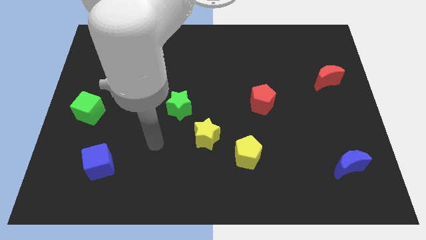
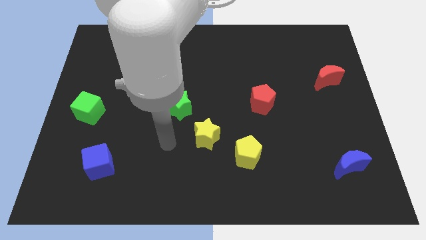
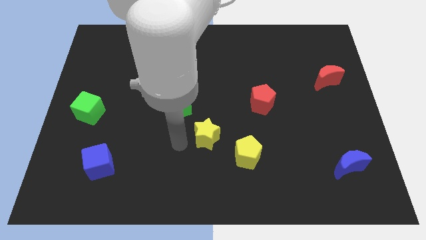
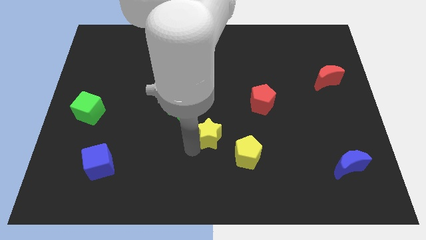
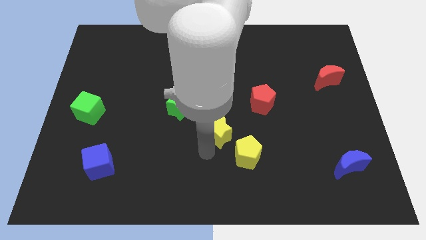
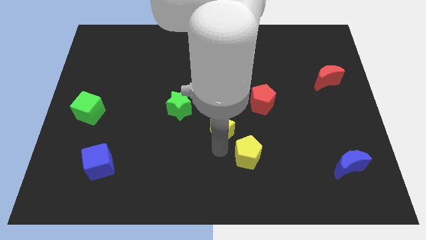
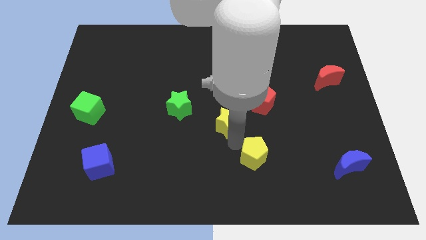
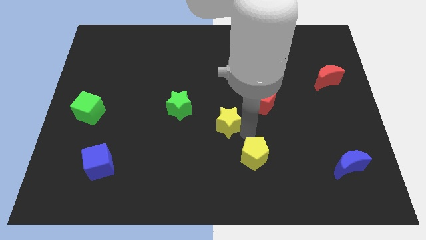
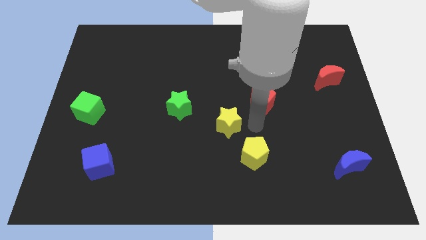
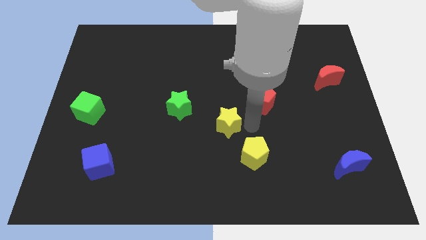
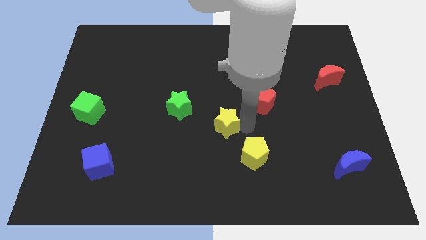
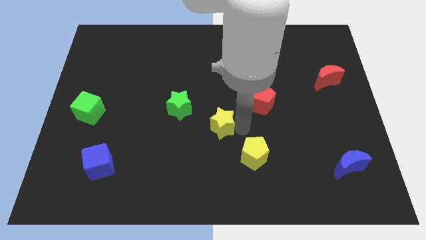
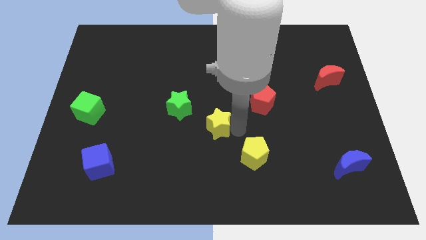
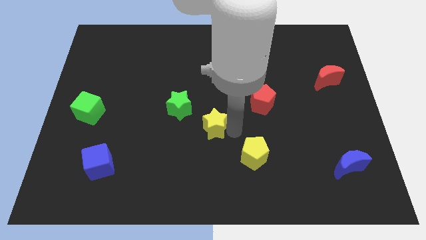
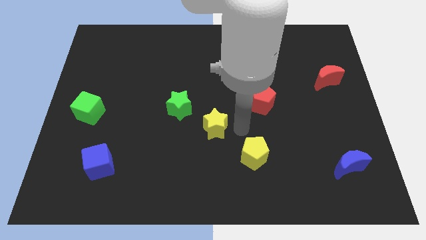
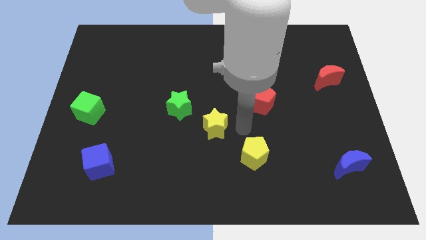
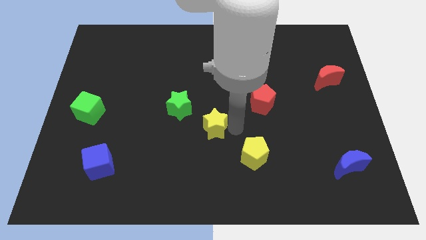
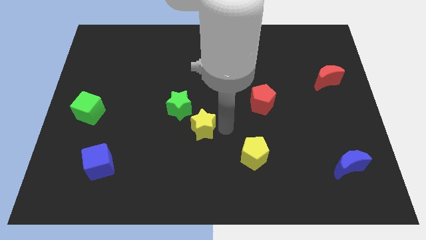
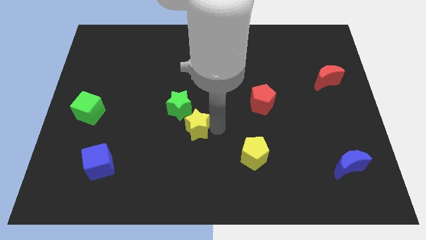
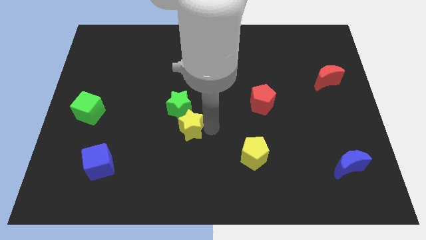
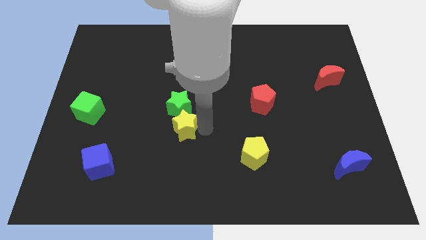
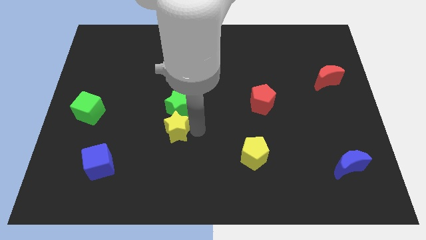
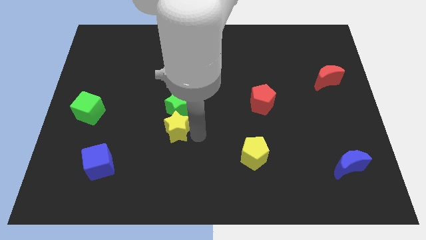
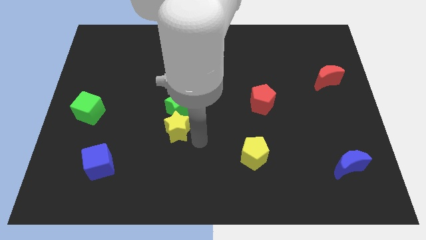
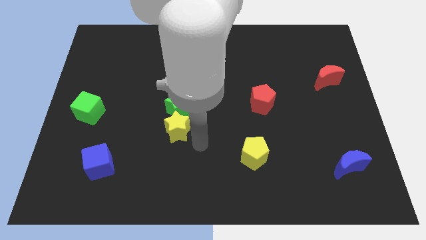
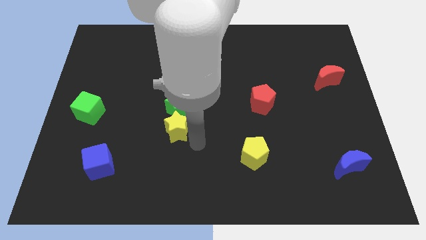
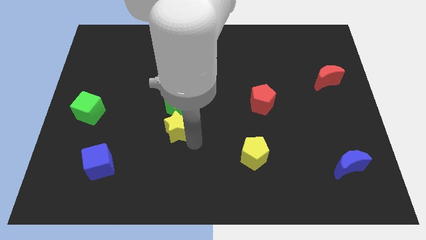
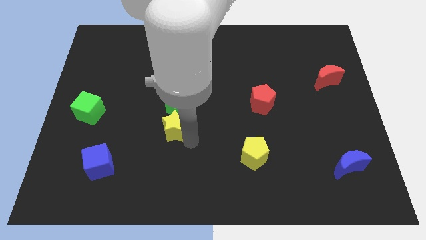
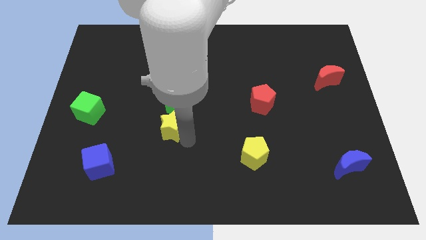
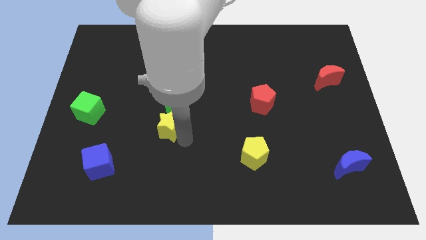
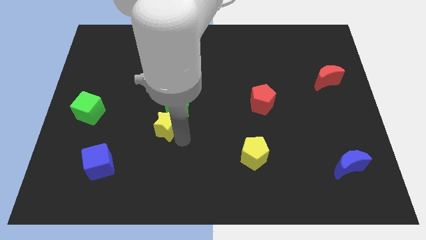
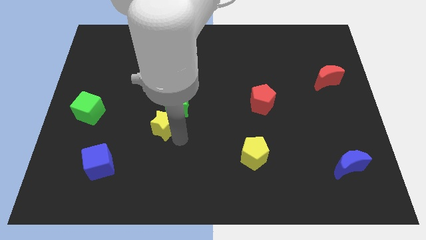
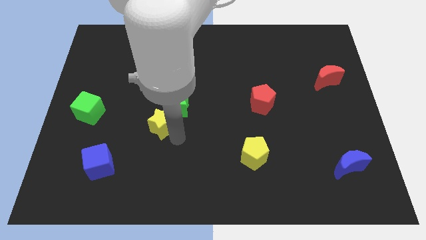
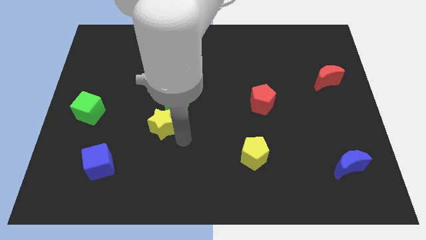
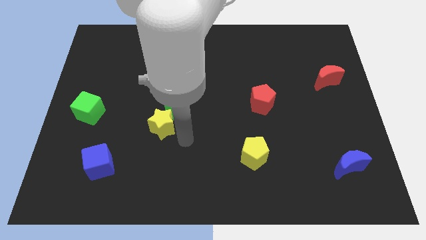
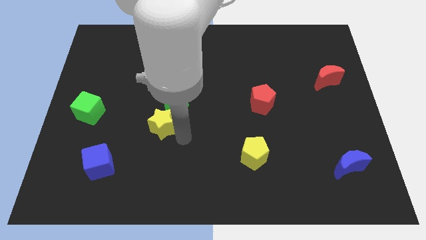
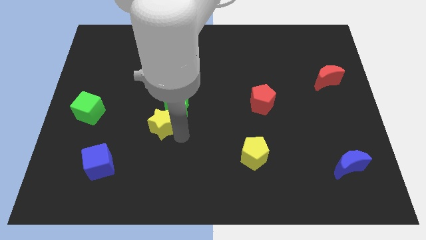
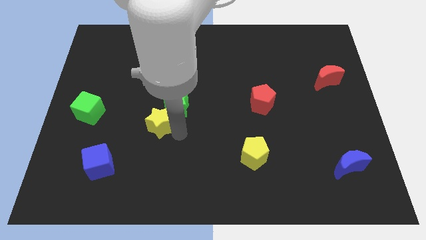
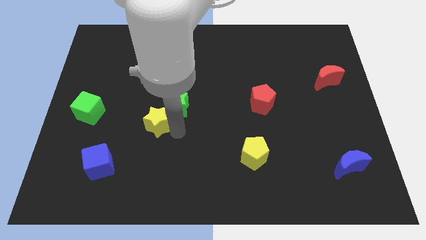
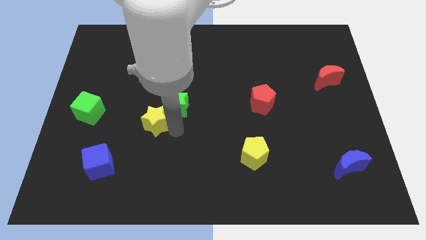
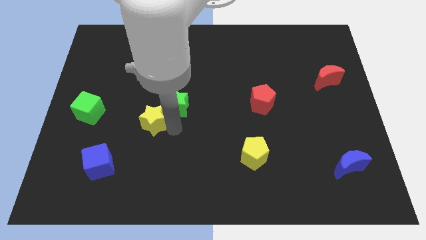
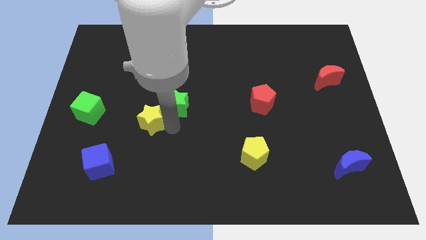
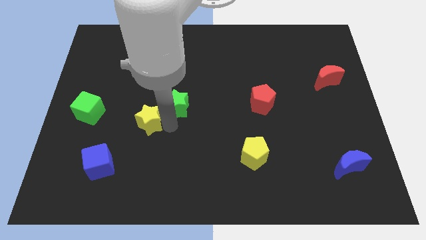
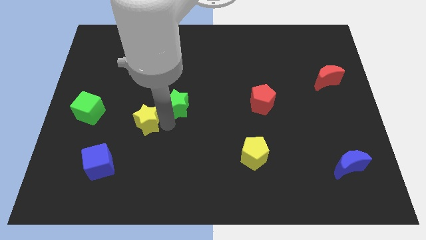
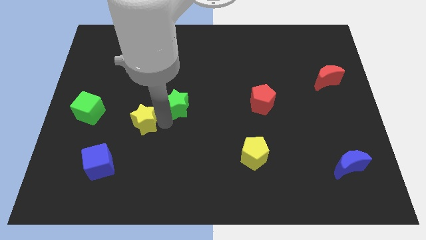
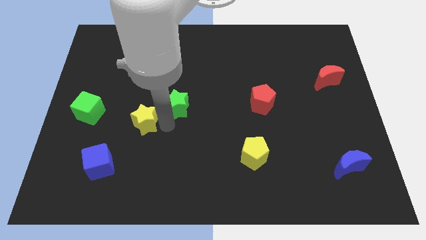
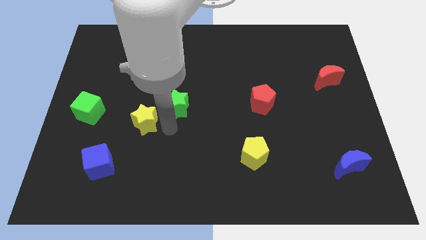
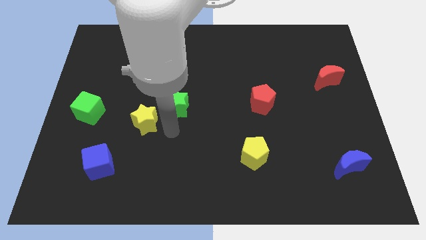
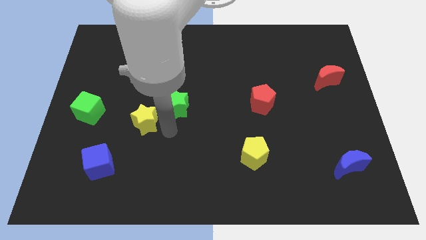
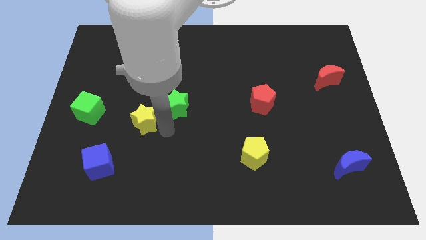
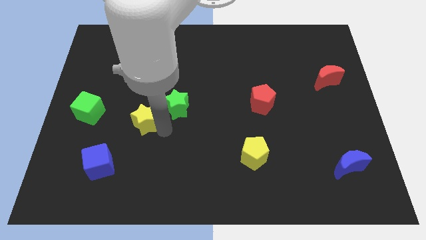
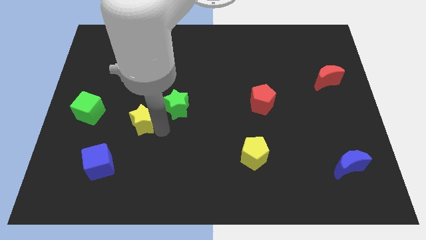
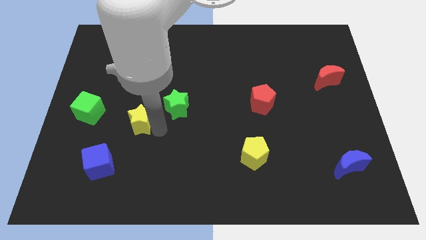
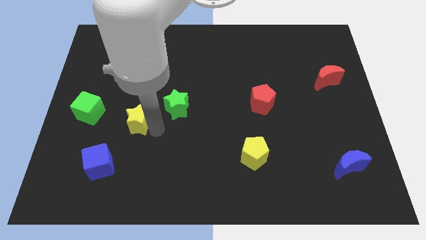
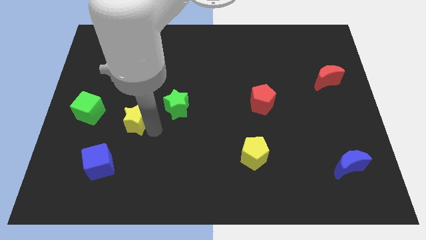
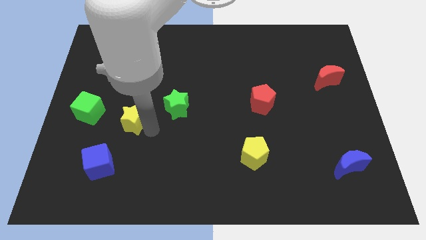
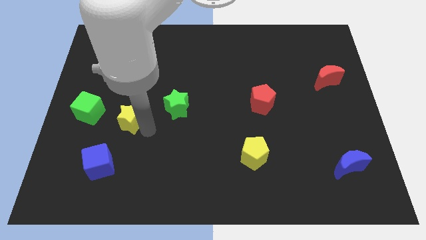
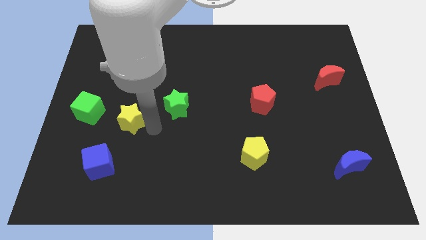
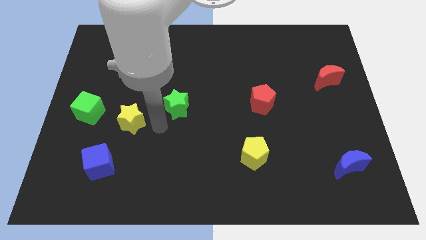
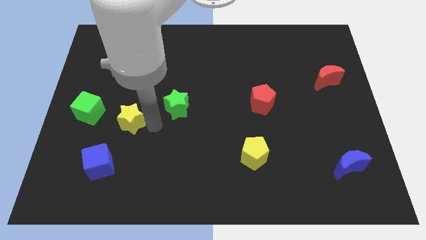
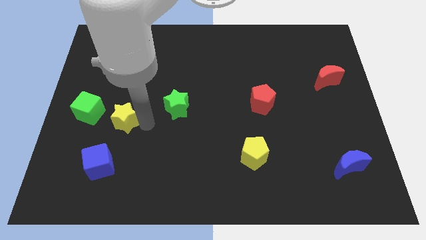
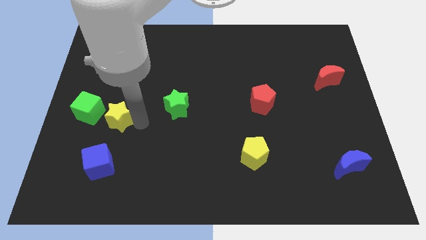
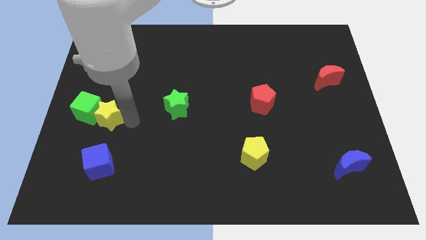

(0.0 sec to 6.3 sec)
push the yellow star close to the green cube

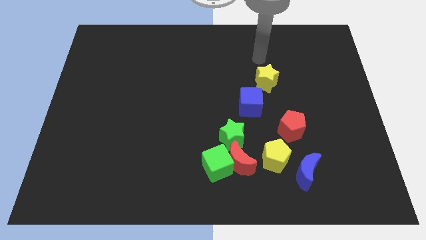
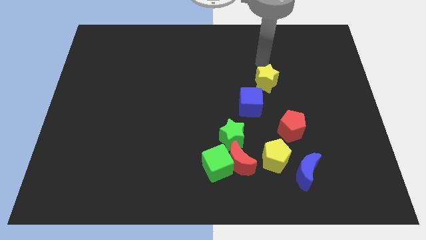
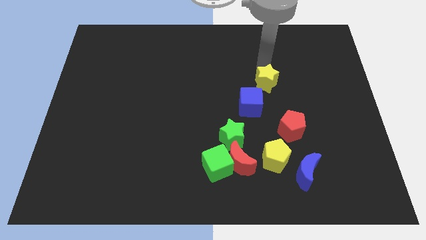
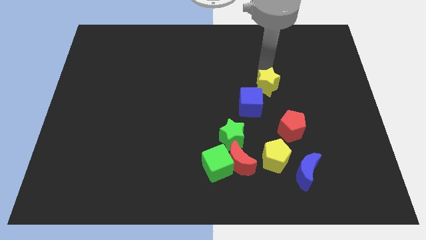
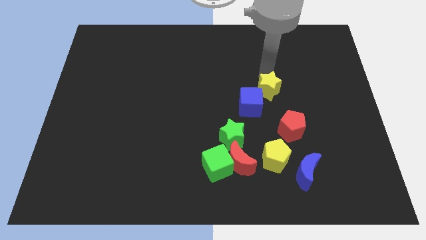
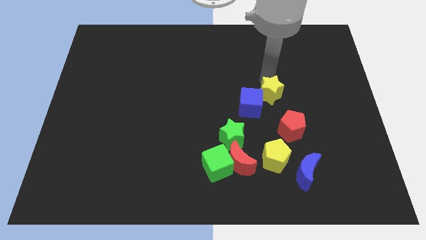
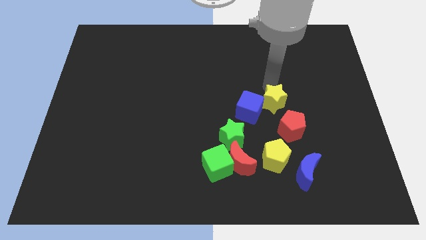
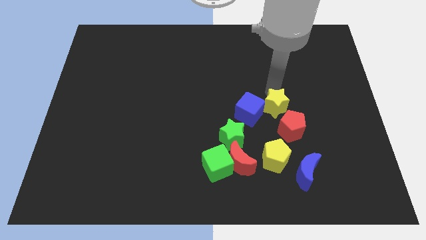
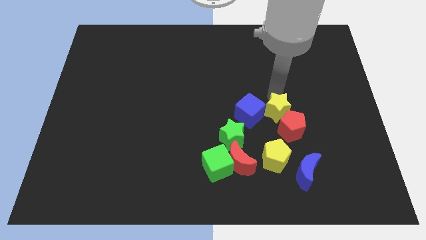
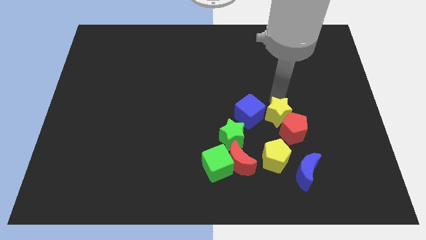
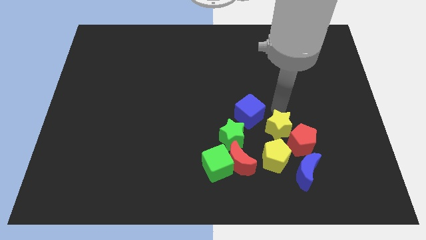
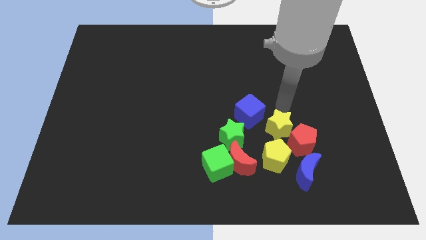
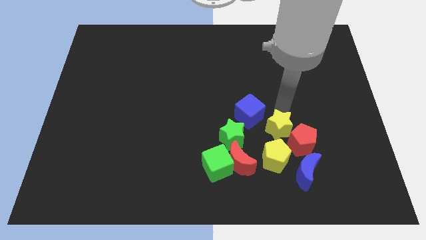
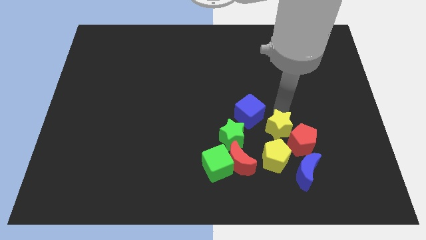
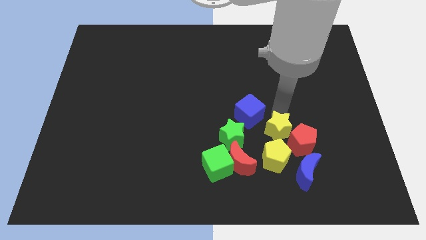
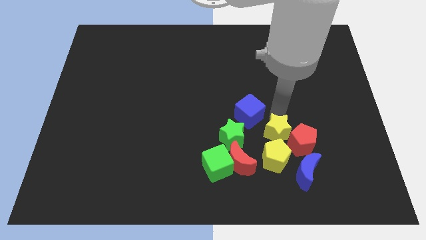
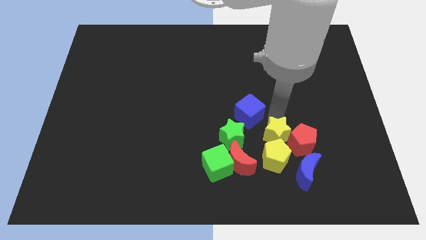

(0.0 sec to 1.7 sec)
push the yellow star close to the yellow pentagon
